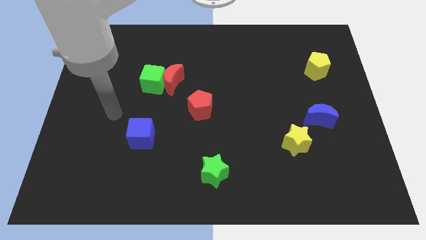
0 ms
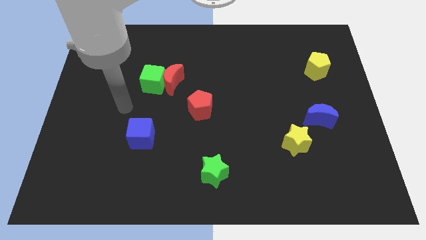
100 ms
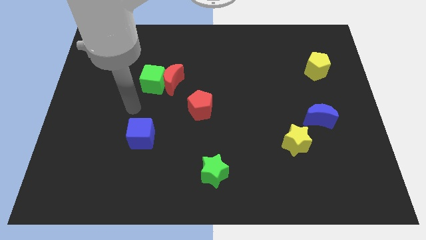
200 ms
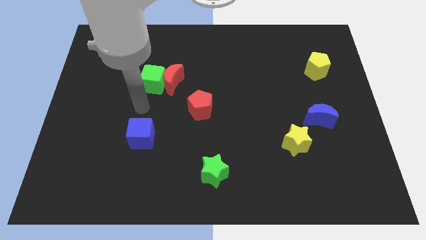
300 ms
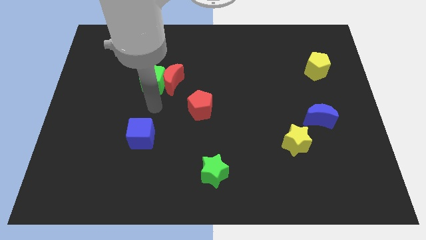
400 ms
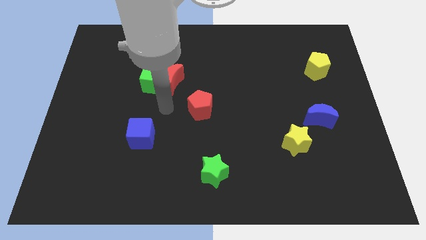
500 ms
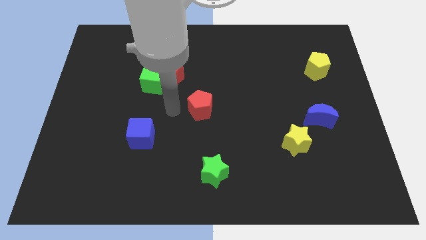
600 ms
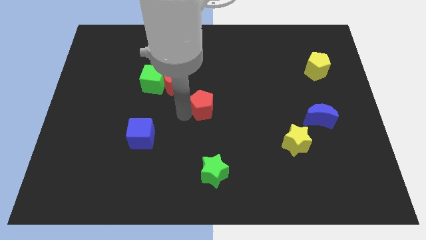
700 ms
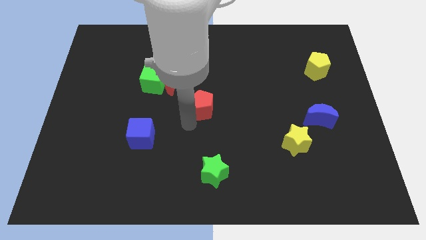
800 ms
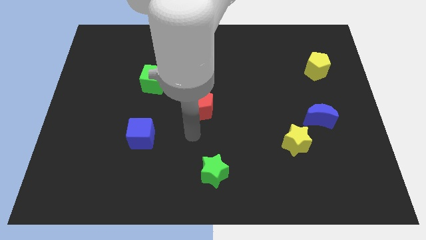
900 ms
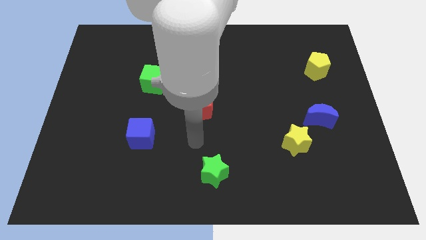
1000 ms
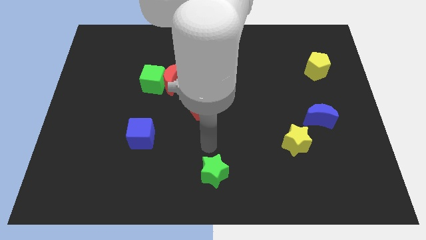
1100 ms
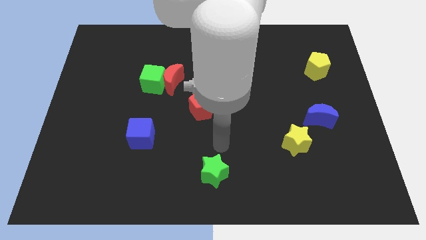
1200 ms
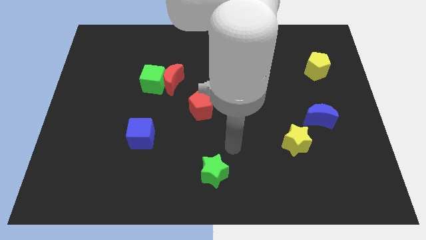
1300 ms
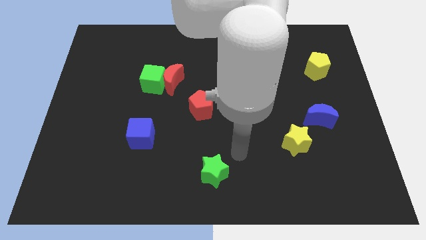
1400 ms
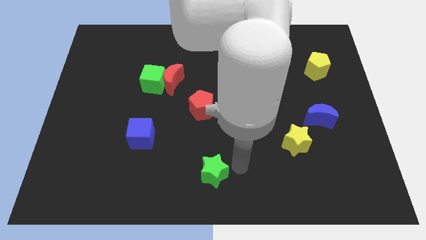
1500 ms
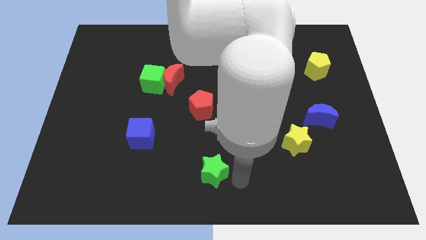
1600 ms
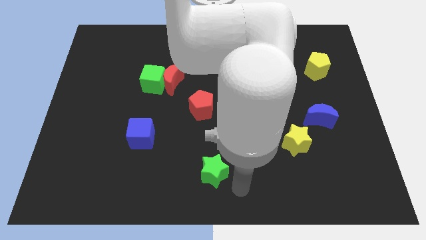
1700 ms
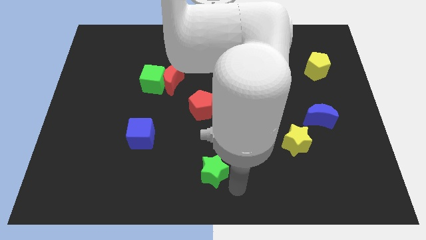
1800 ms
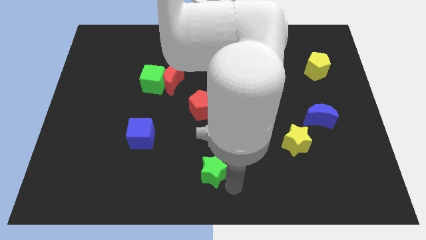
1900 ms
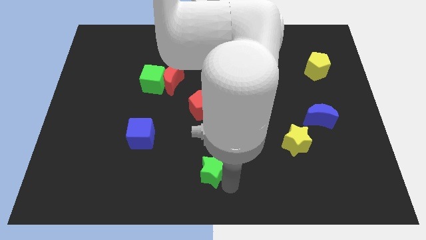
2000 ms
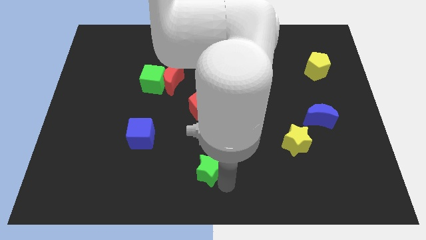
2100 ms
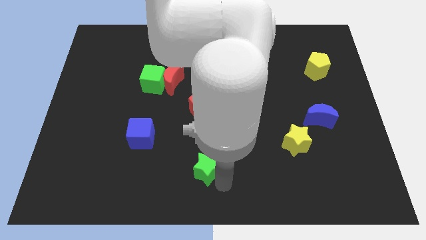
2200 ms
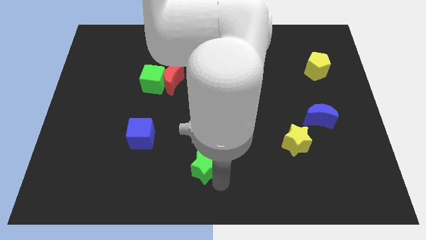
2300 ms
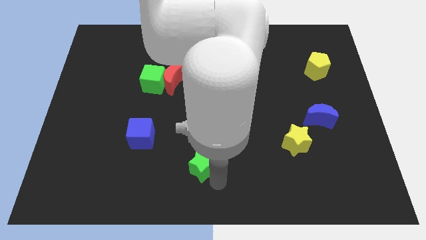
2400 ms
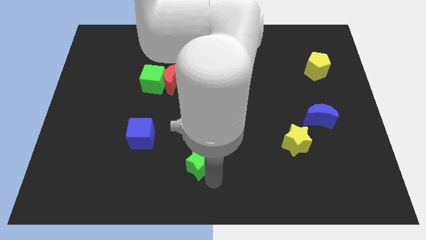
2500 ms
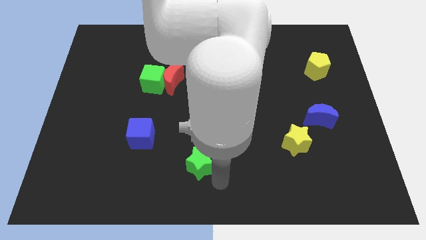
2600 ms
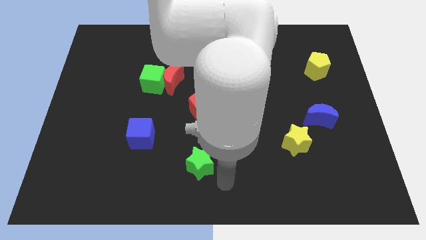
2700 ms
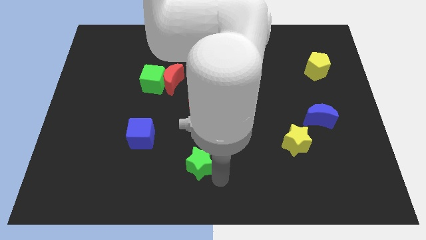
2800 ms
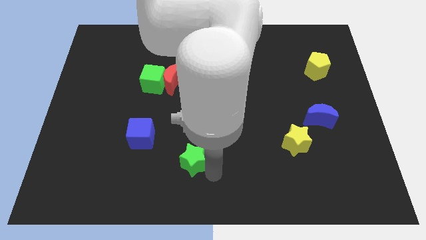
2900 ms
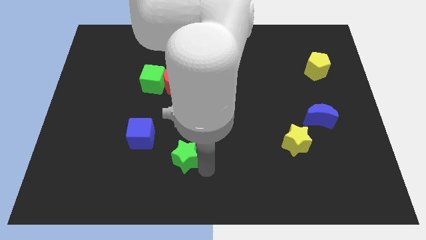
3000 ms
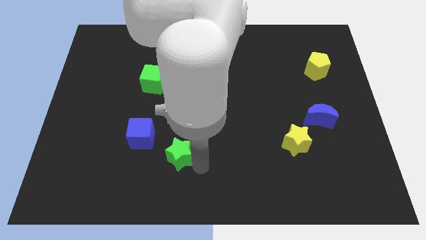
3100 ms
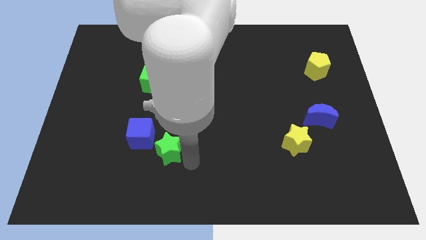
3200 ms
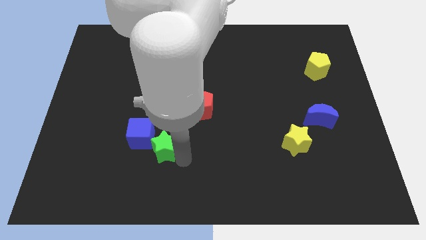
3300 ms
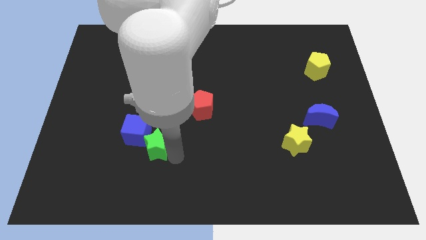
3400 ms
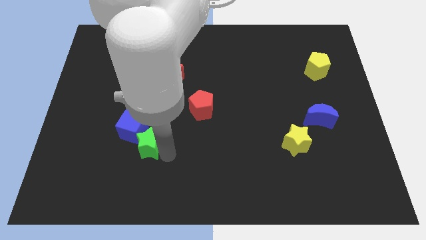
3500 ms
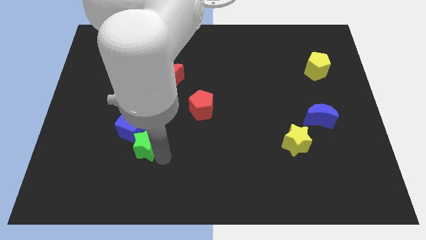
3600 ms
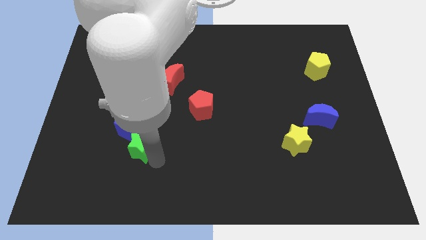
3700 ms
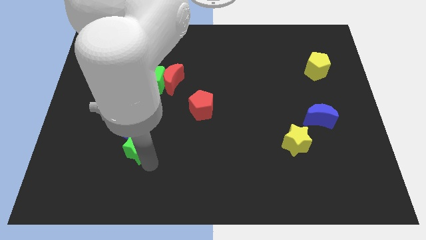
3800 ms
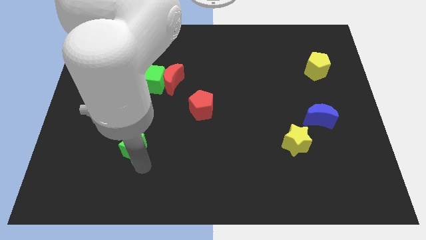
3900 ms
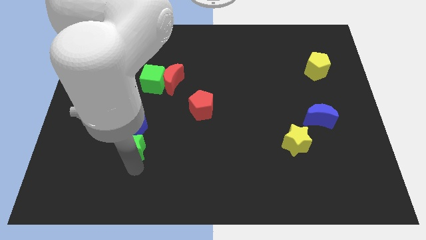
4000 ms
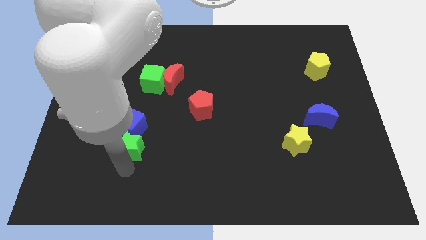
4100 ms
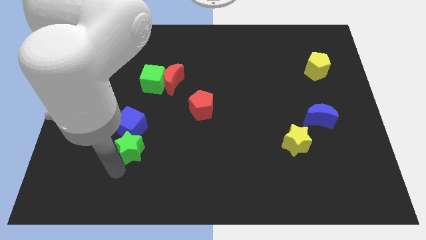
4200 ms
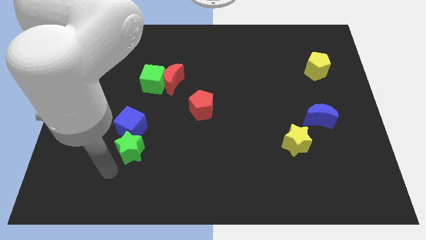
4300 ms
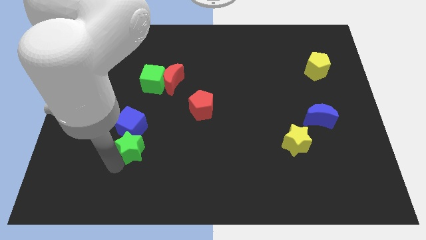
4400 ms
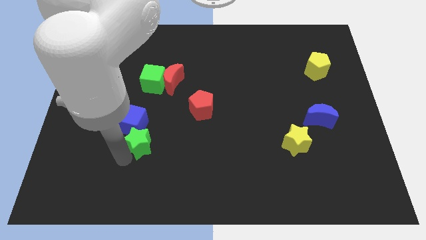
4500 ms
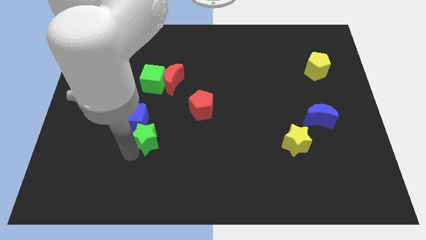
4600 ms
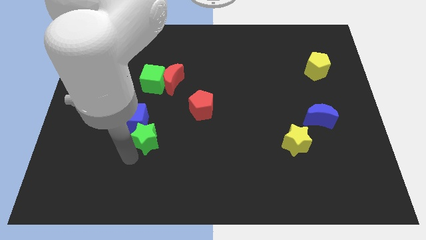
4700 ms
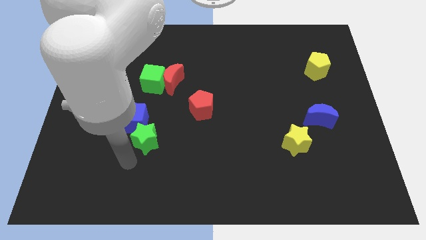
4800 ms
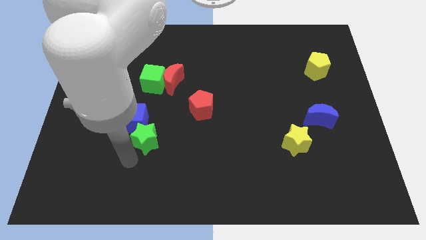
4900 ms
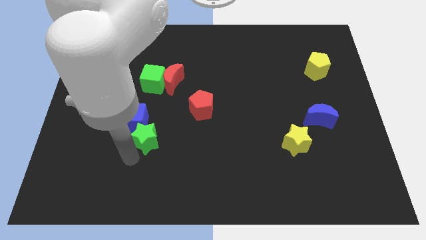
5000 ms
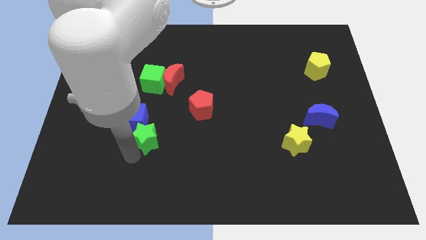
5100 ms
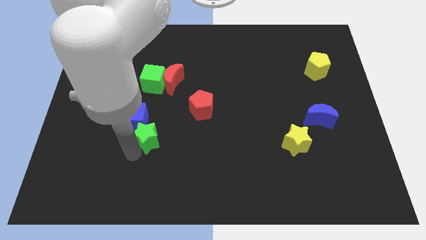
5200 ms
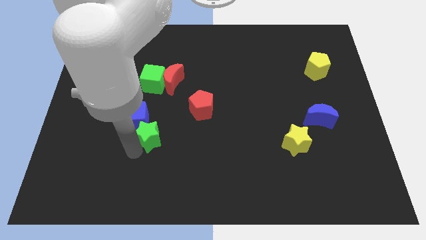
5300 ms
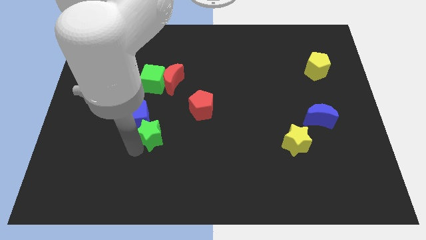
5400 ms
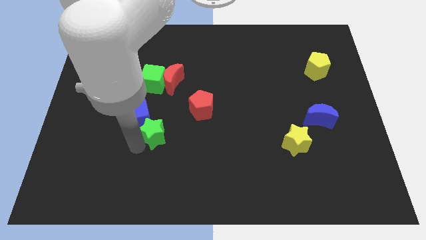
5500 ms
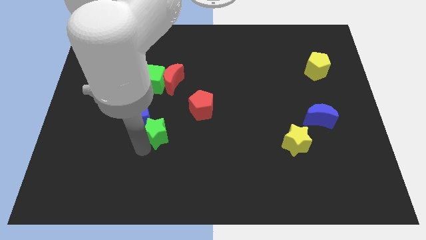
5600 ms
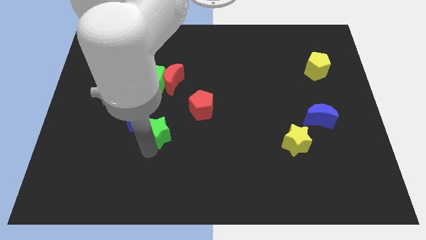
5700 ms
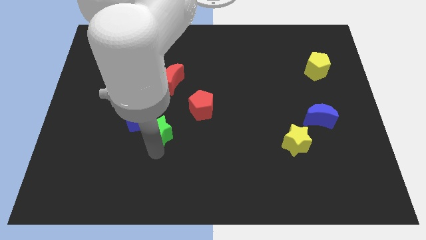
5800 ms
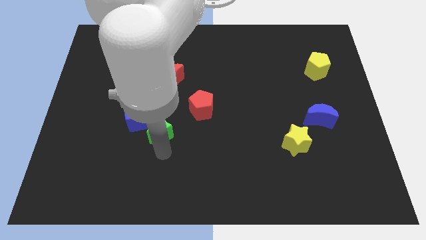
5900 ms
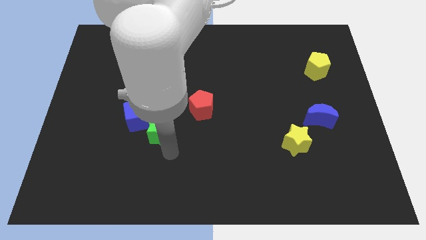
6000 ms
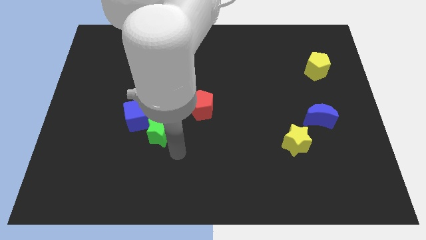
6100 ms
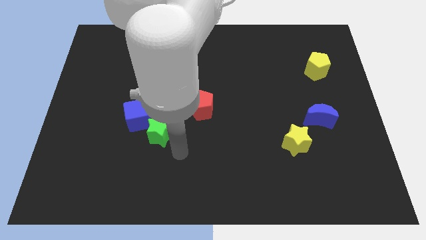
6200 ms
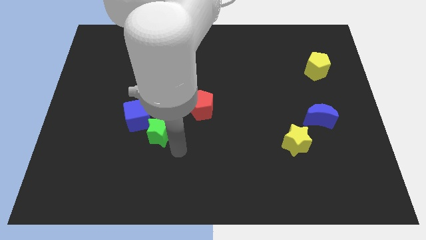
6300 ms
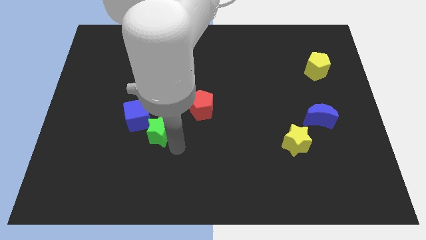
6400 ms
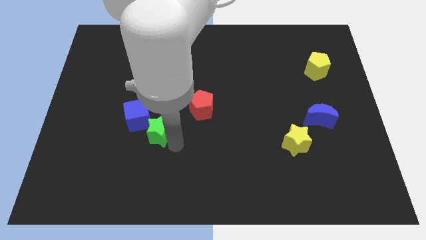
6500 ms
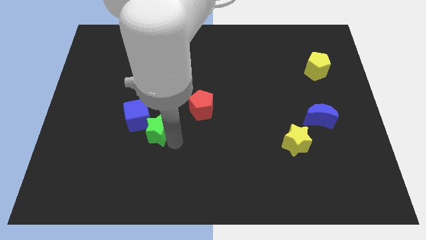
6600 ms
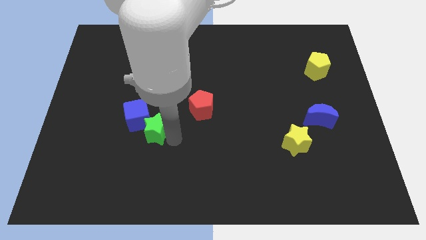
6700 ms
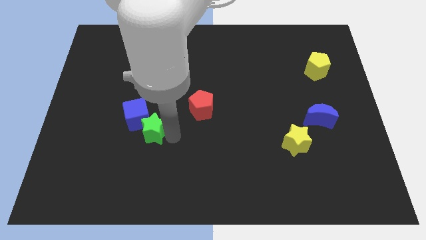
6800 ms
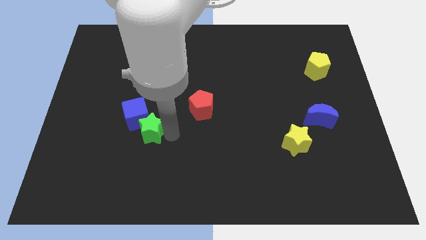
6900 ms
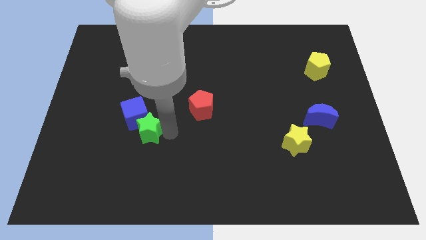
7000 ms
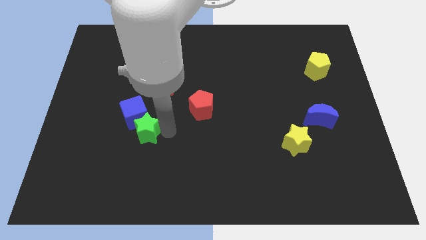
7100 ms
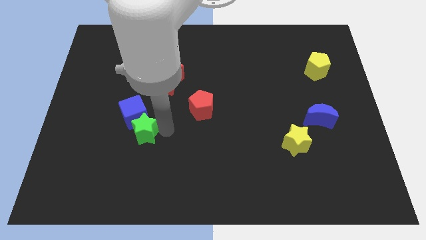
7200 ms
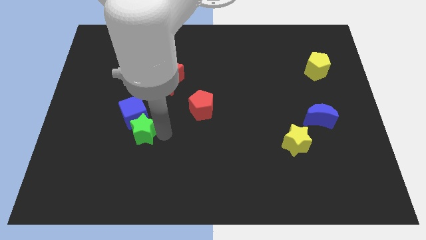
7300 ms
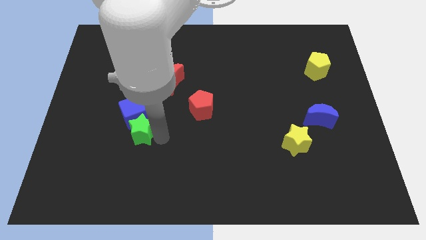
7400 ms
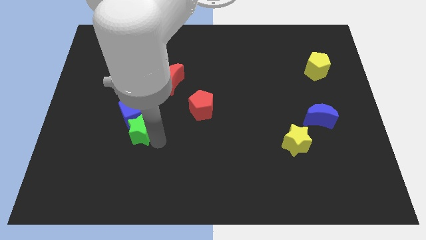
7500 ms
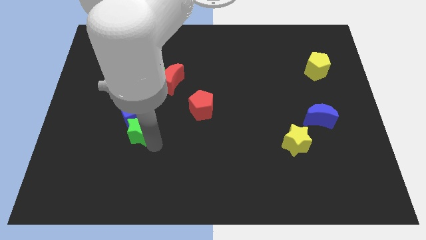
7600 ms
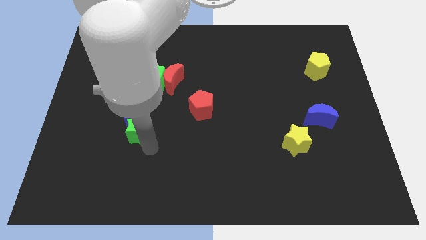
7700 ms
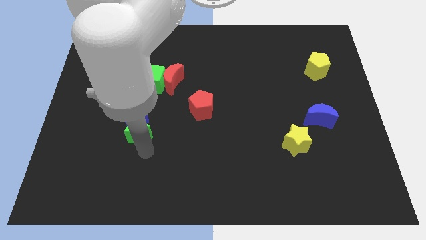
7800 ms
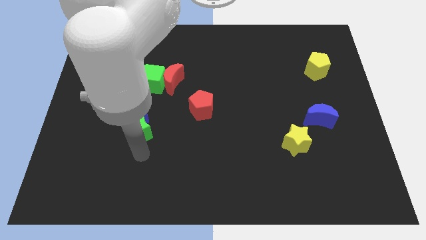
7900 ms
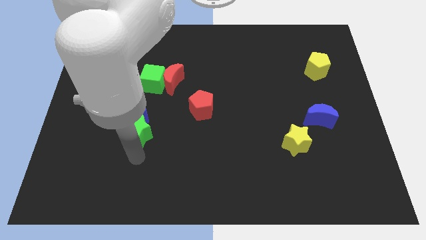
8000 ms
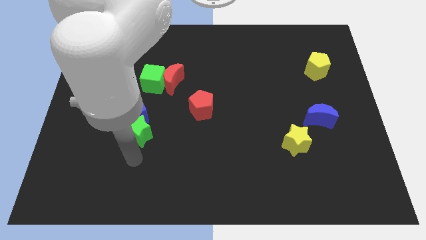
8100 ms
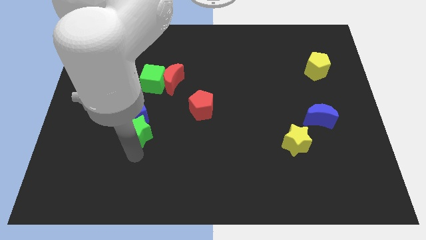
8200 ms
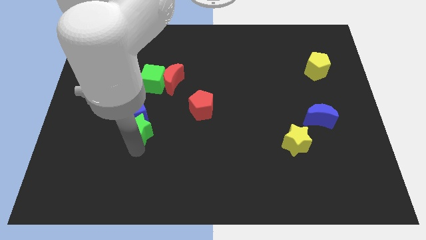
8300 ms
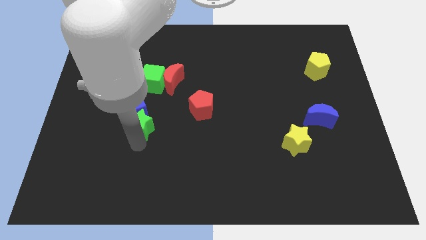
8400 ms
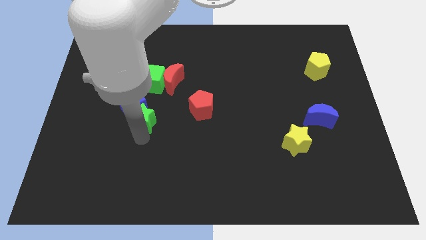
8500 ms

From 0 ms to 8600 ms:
slide the green star diagonally up and to the left
